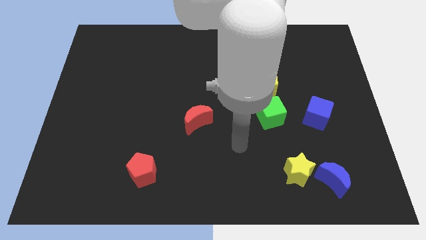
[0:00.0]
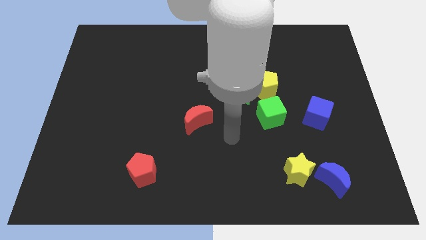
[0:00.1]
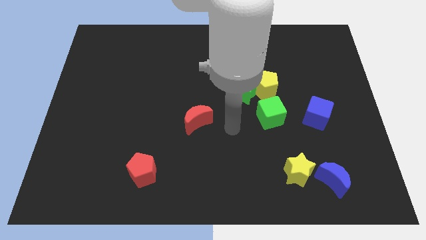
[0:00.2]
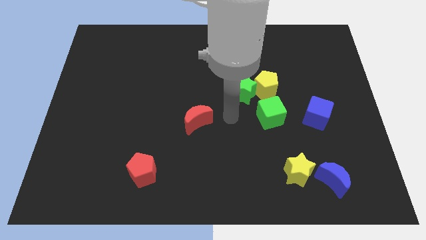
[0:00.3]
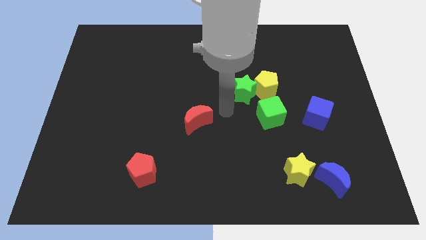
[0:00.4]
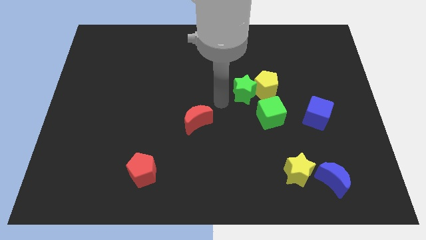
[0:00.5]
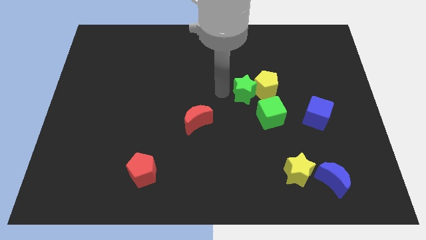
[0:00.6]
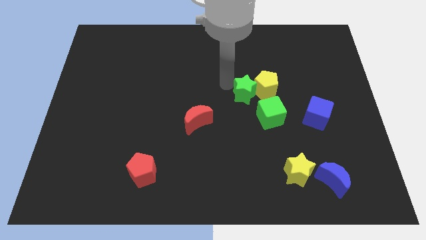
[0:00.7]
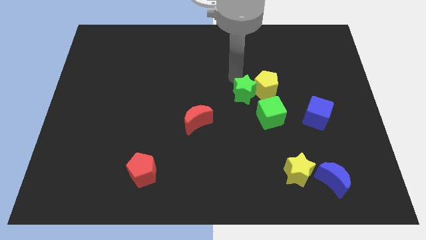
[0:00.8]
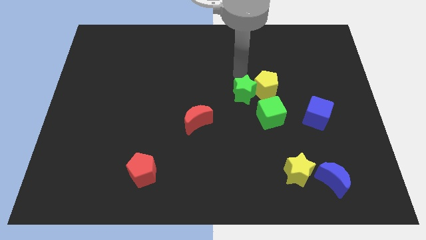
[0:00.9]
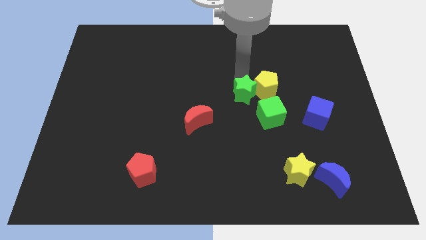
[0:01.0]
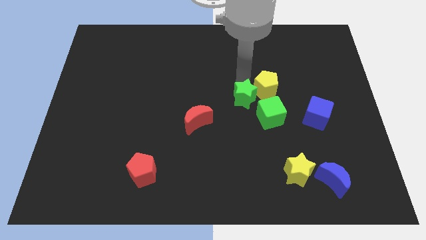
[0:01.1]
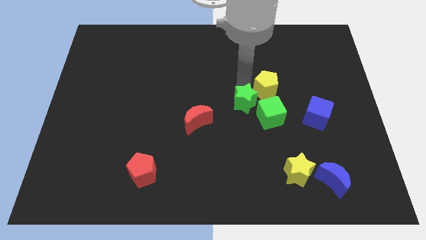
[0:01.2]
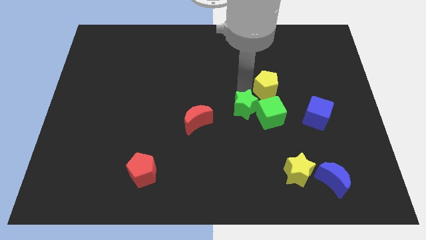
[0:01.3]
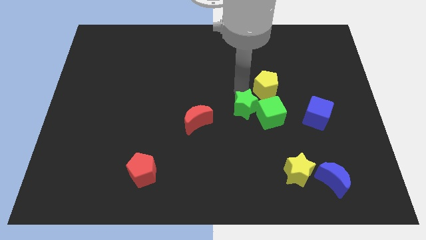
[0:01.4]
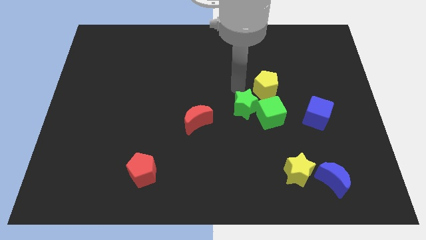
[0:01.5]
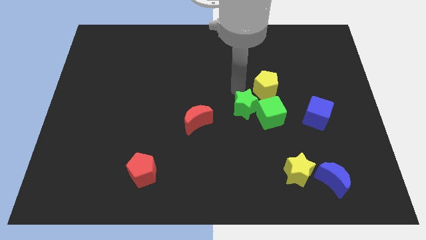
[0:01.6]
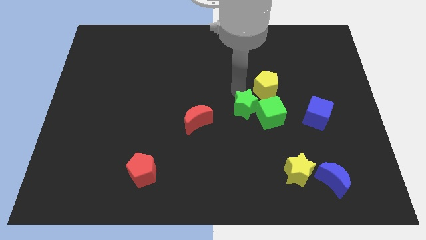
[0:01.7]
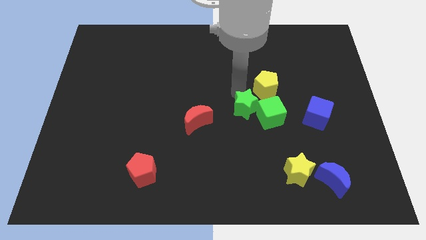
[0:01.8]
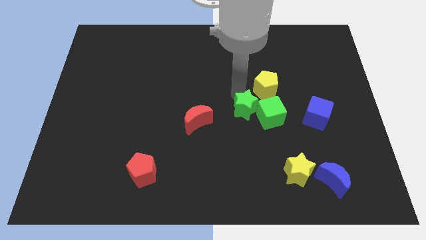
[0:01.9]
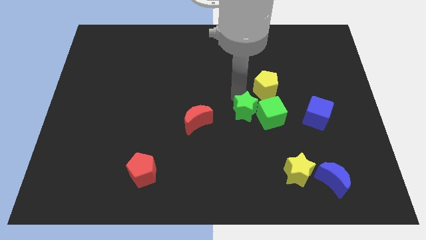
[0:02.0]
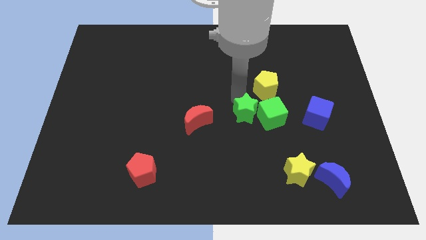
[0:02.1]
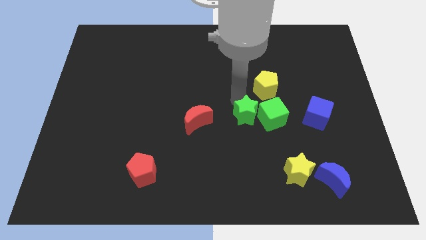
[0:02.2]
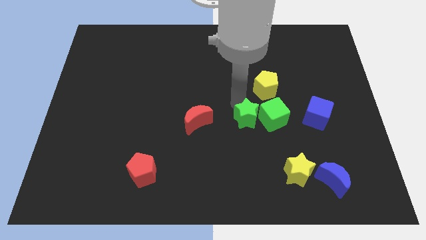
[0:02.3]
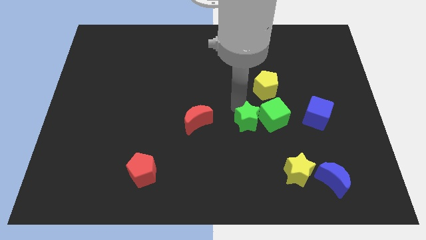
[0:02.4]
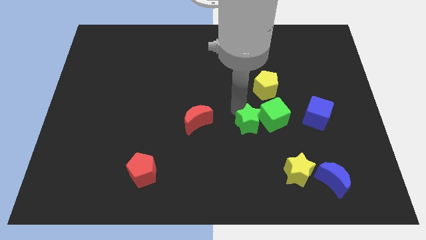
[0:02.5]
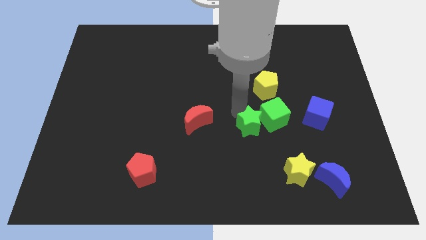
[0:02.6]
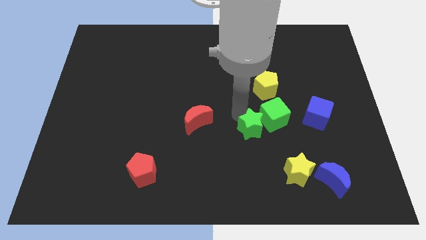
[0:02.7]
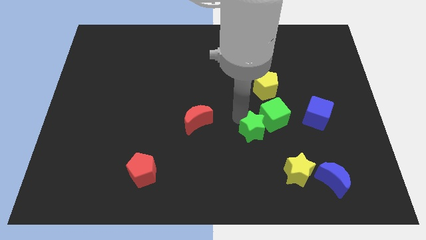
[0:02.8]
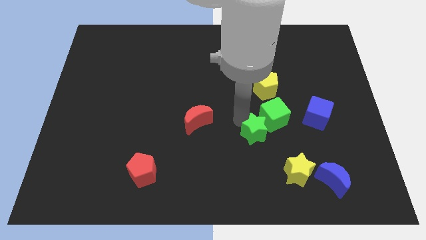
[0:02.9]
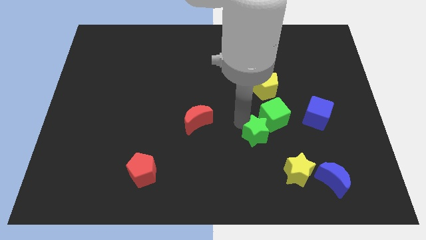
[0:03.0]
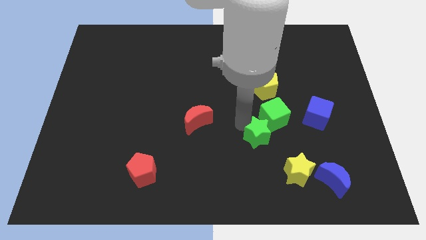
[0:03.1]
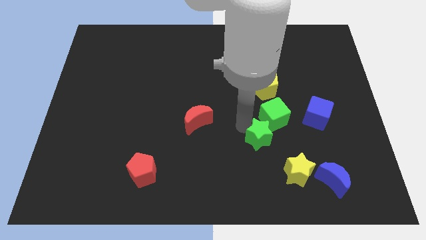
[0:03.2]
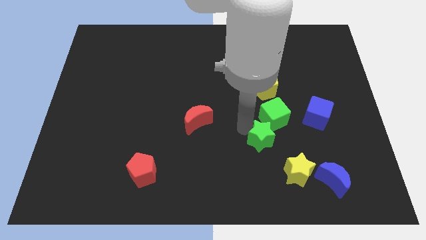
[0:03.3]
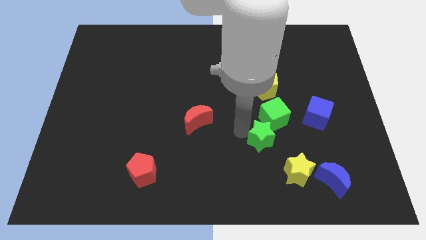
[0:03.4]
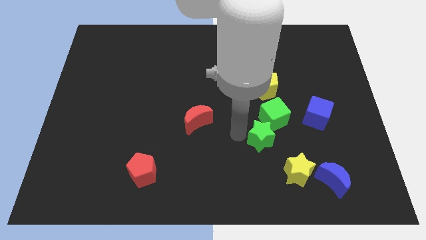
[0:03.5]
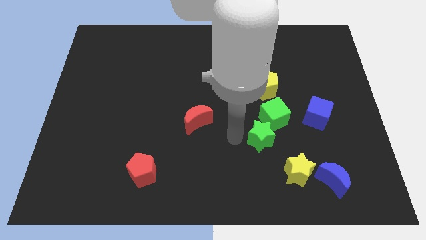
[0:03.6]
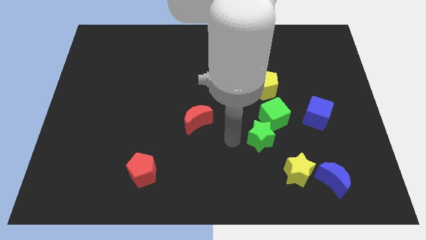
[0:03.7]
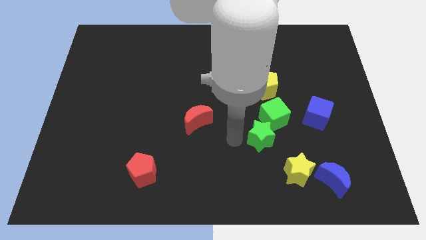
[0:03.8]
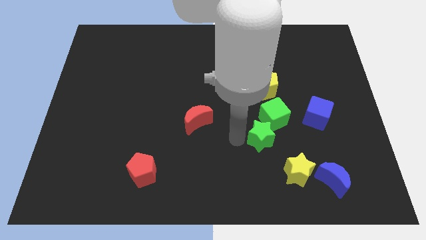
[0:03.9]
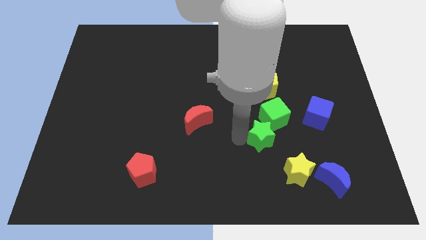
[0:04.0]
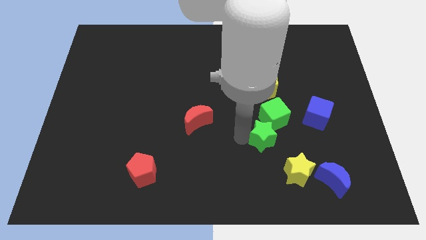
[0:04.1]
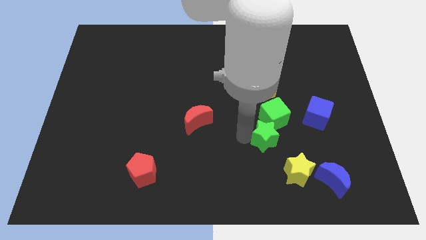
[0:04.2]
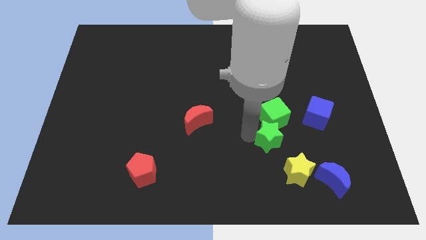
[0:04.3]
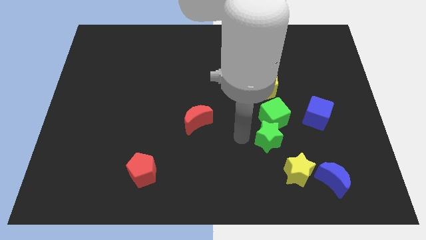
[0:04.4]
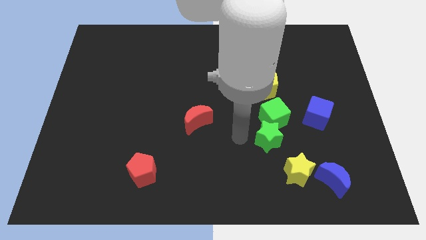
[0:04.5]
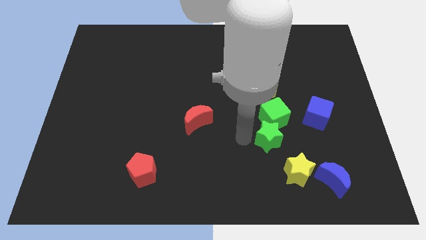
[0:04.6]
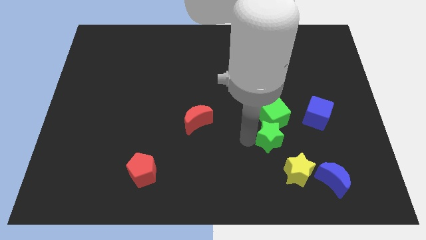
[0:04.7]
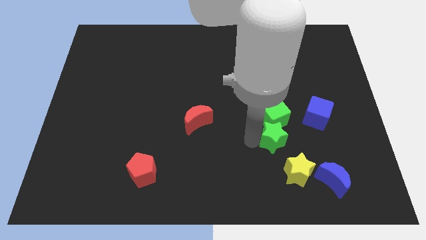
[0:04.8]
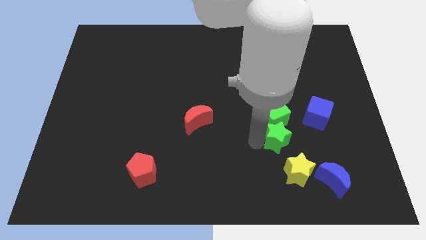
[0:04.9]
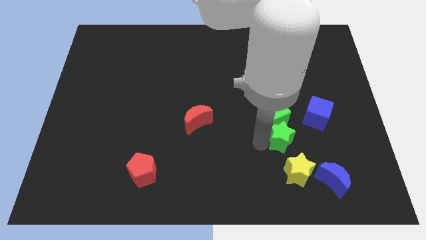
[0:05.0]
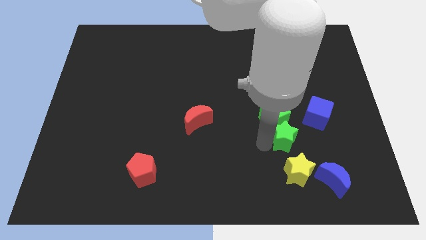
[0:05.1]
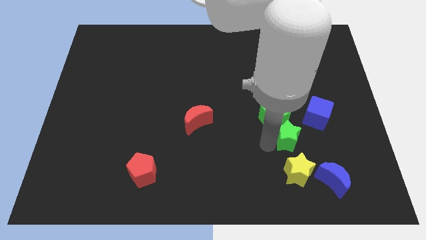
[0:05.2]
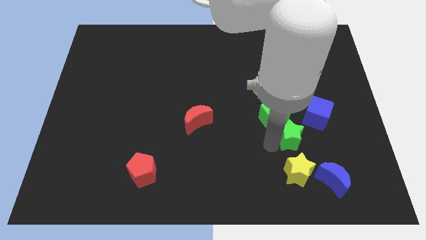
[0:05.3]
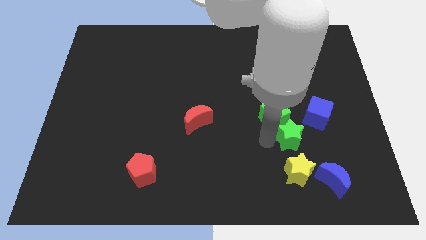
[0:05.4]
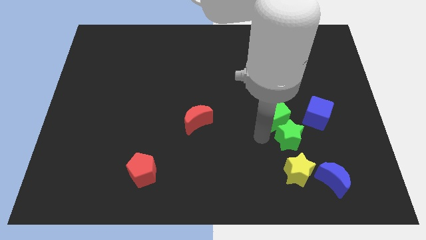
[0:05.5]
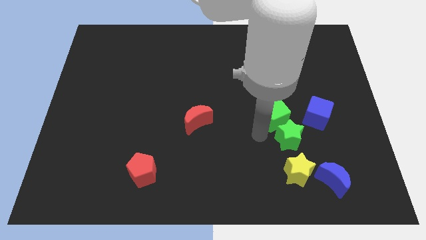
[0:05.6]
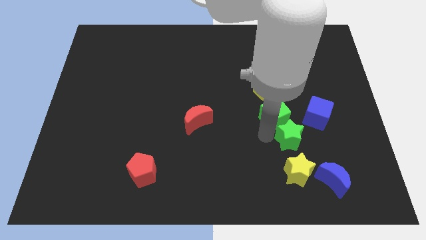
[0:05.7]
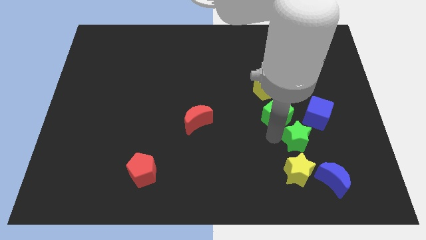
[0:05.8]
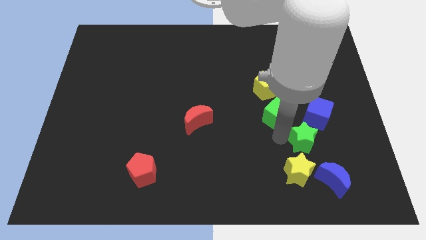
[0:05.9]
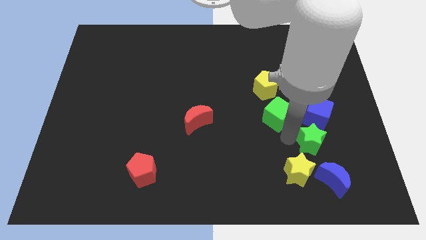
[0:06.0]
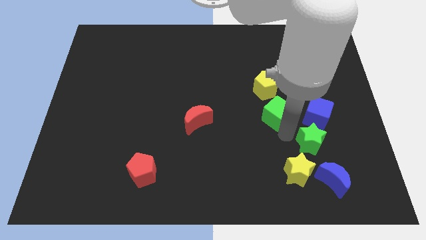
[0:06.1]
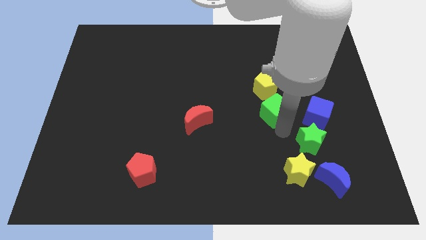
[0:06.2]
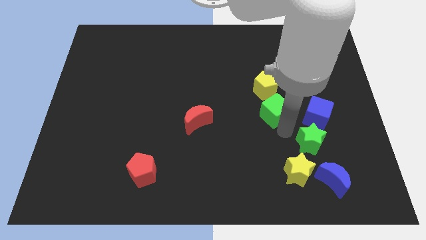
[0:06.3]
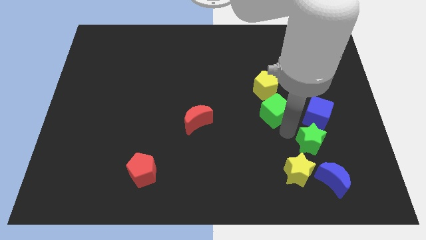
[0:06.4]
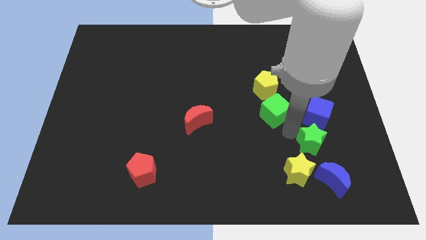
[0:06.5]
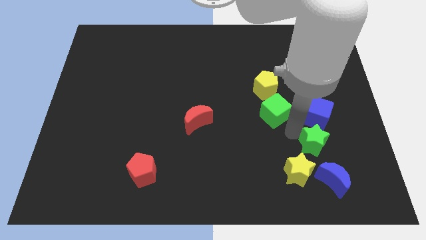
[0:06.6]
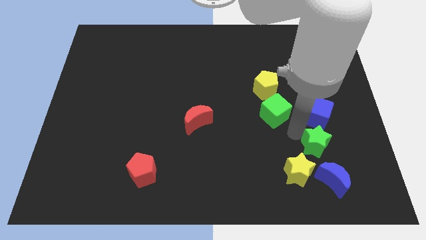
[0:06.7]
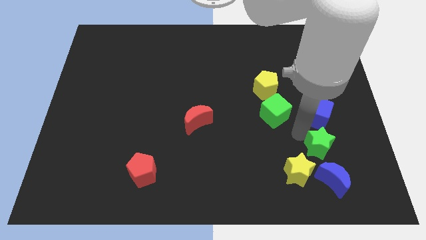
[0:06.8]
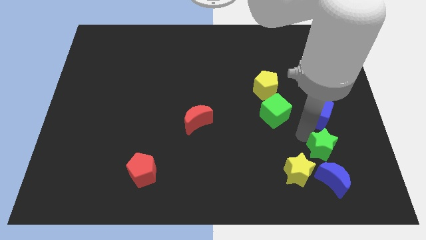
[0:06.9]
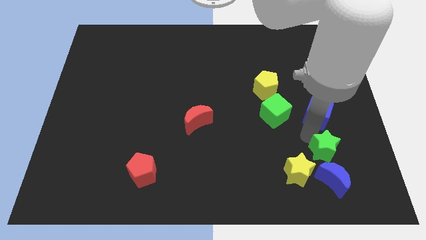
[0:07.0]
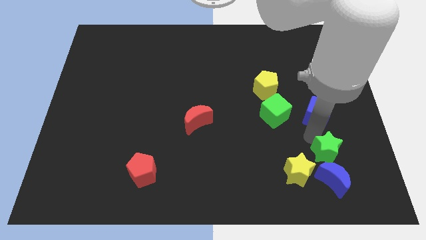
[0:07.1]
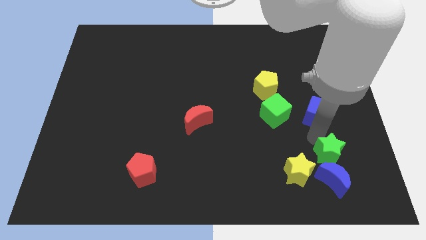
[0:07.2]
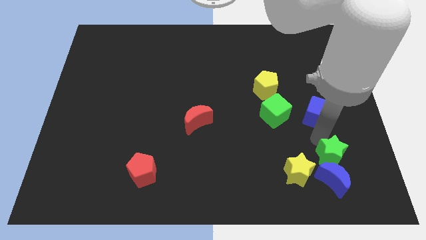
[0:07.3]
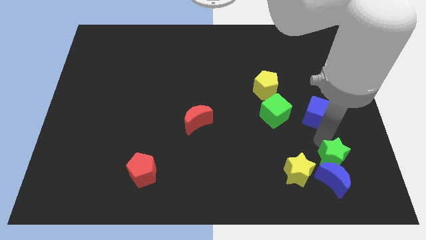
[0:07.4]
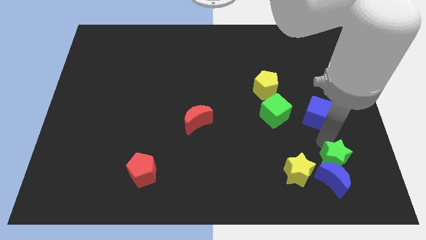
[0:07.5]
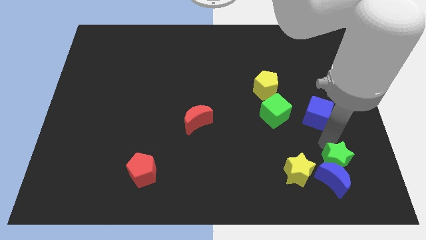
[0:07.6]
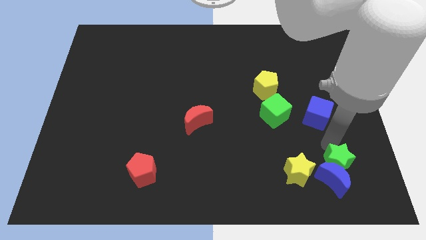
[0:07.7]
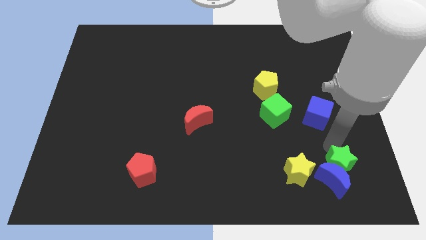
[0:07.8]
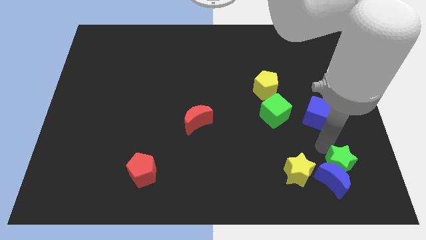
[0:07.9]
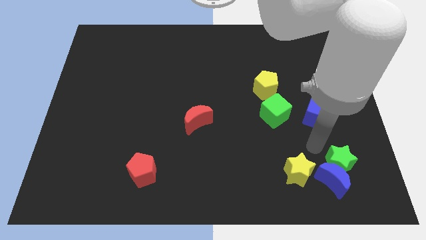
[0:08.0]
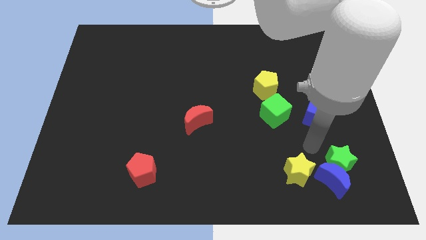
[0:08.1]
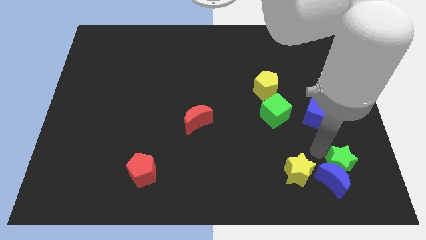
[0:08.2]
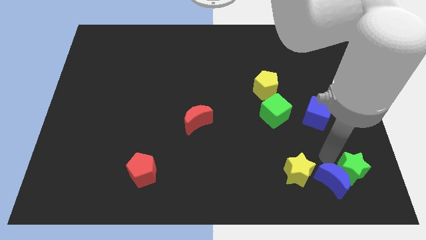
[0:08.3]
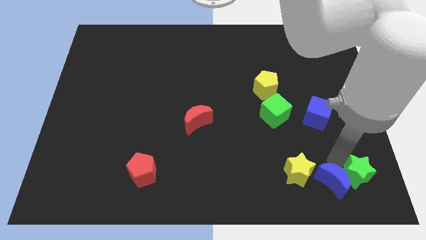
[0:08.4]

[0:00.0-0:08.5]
push the green star to the lower right corner
